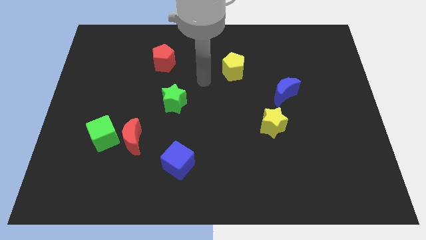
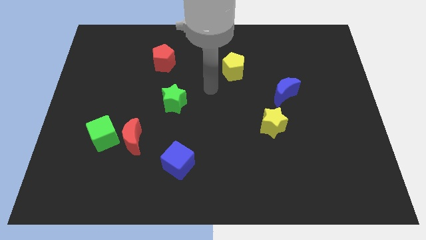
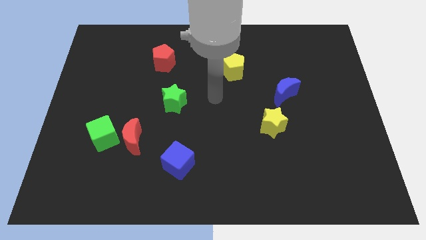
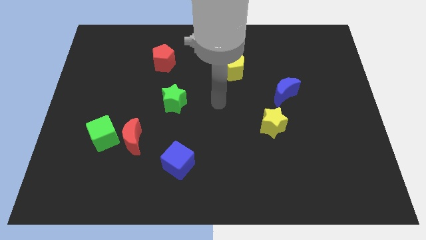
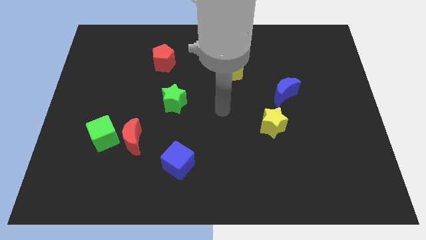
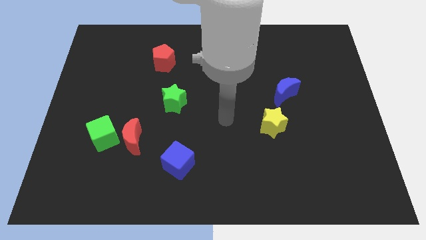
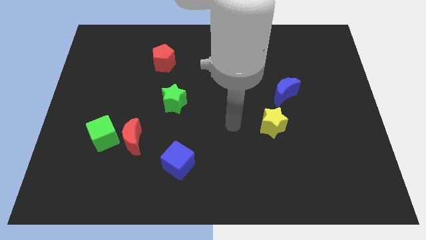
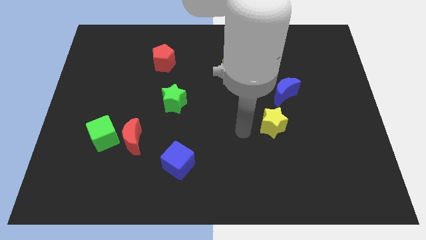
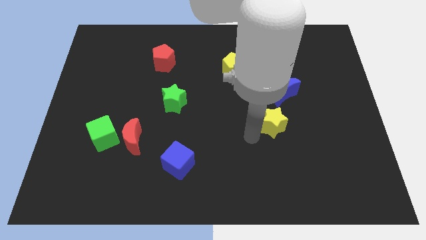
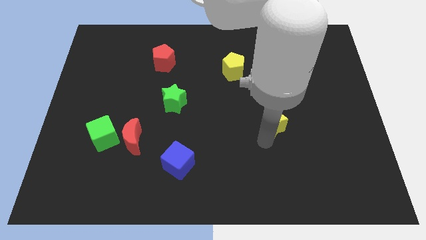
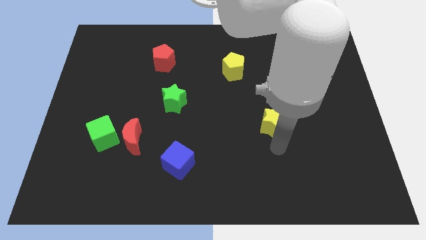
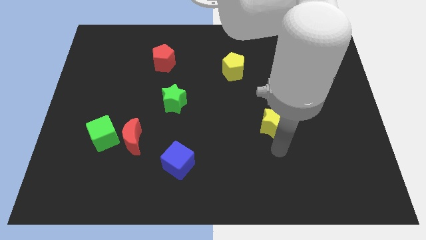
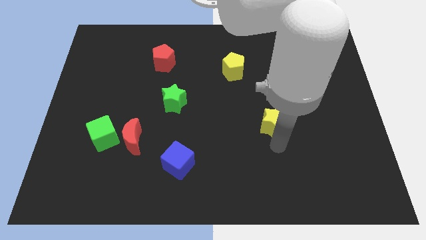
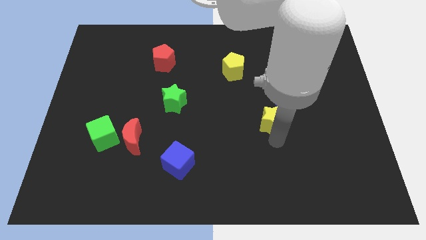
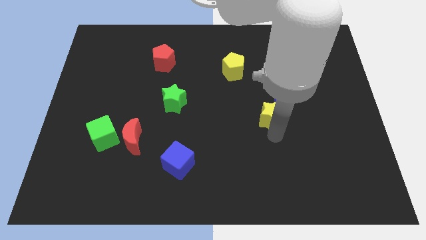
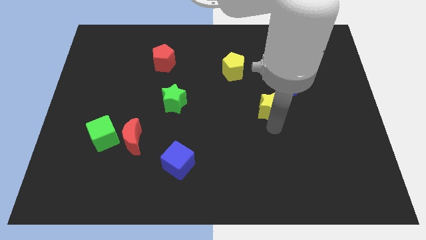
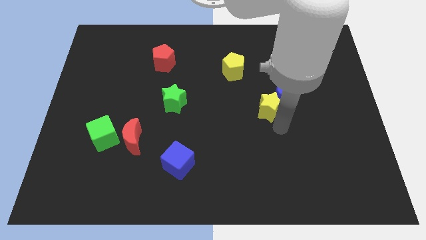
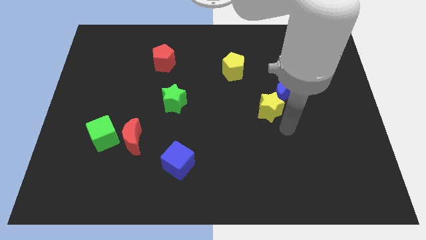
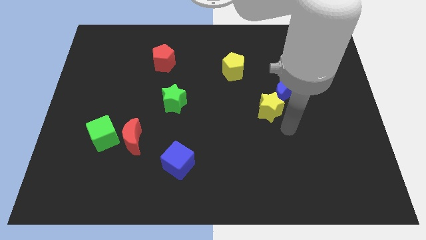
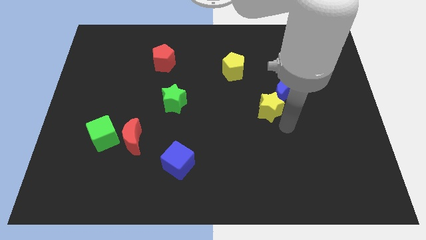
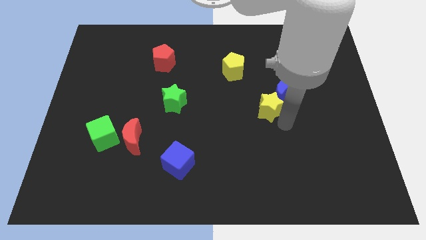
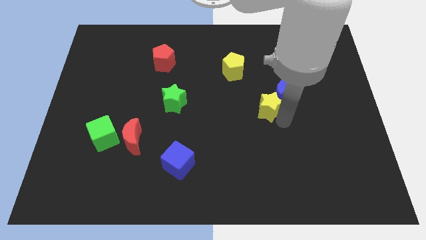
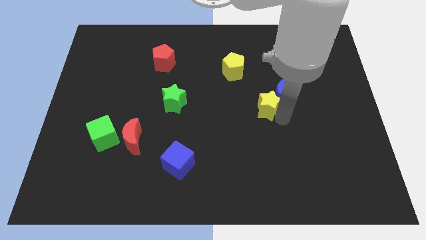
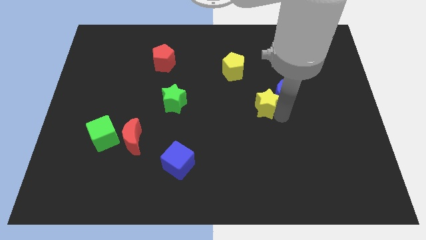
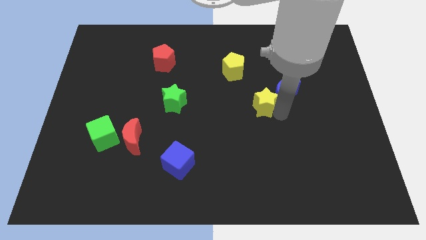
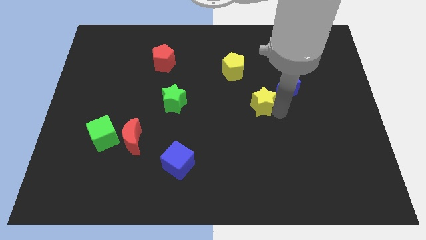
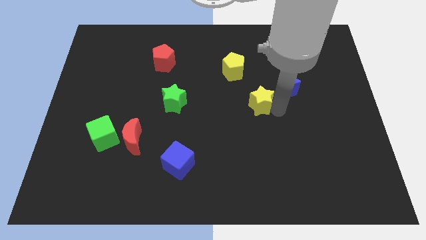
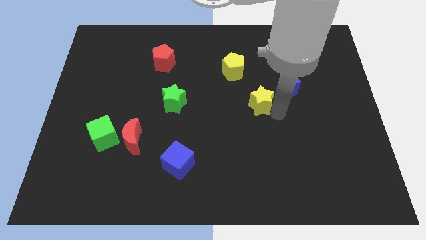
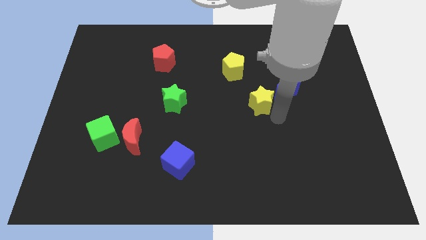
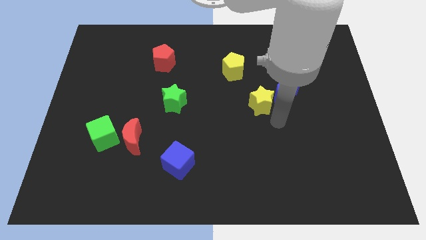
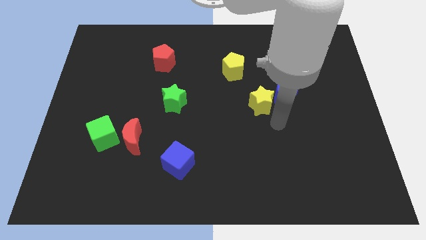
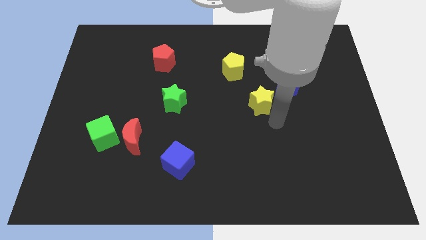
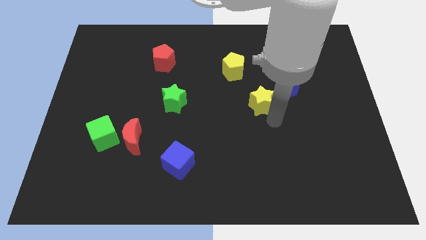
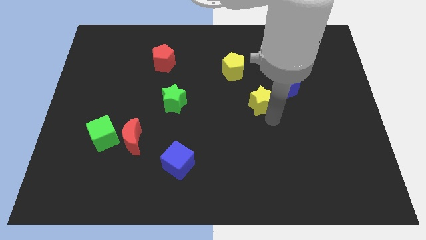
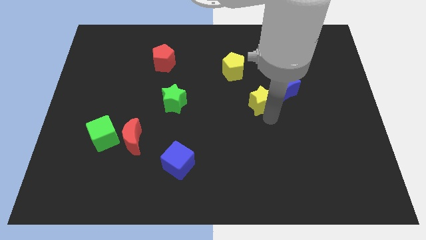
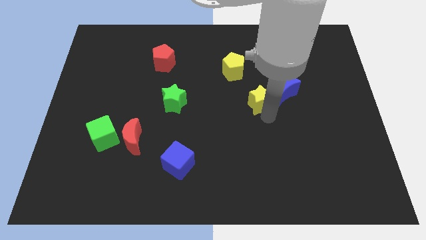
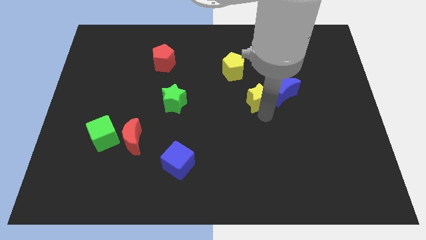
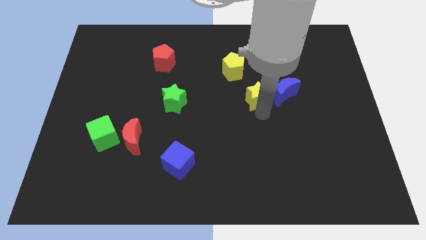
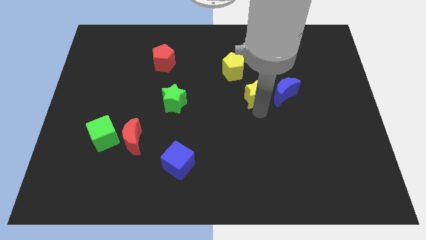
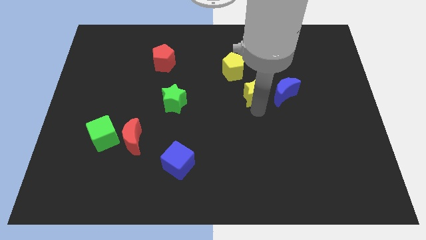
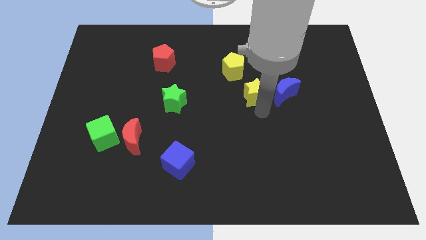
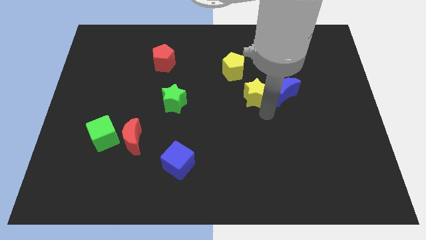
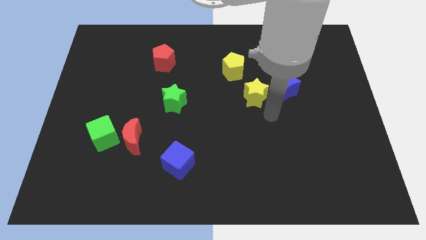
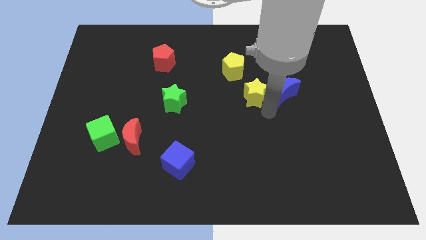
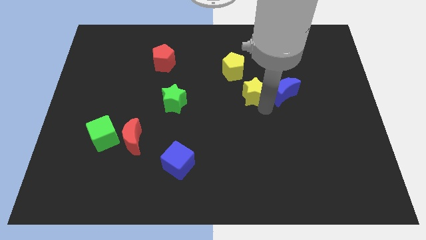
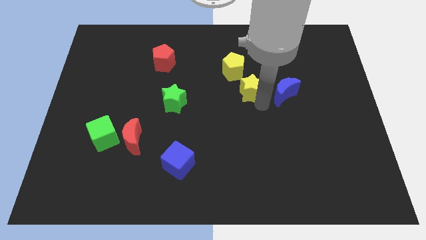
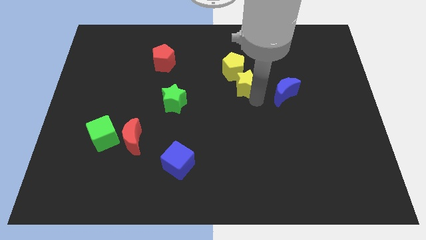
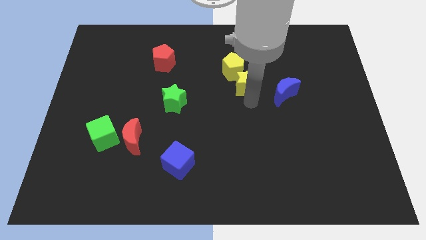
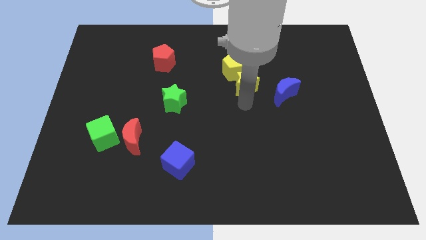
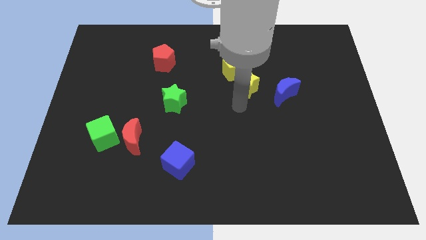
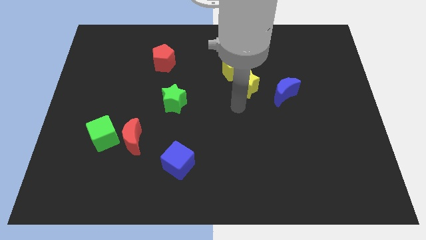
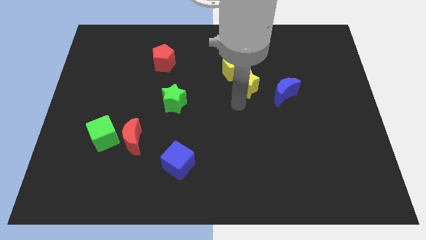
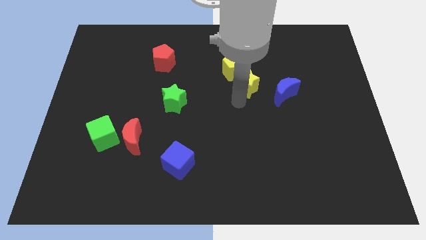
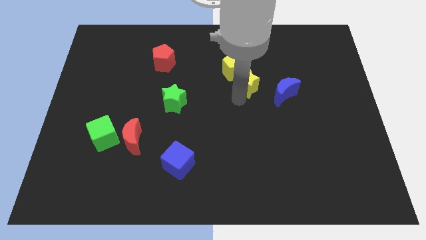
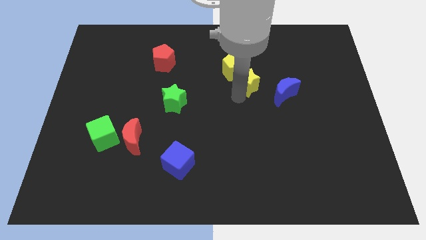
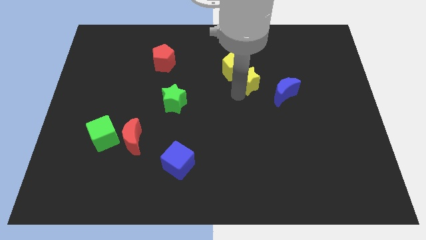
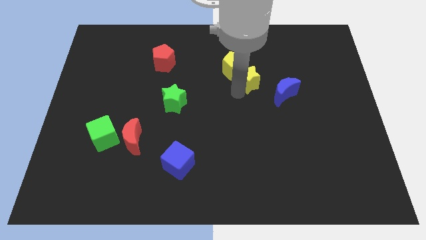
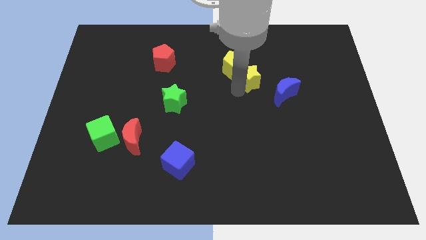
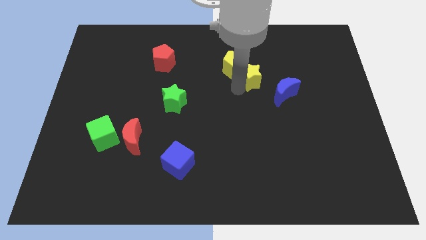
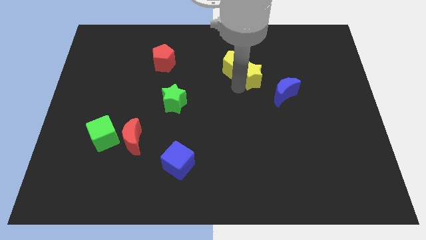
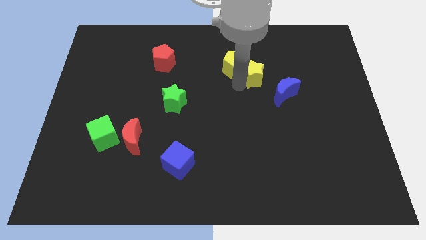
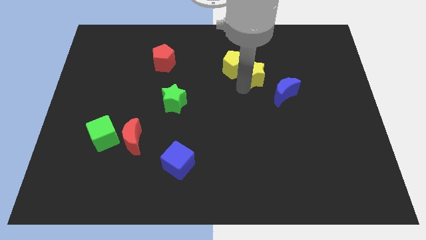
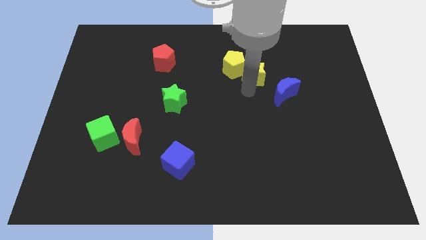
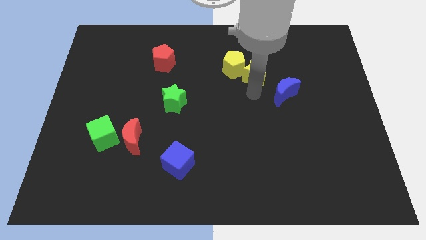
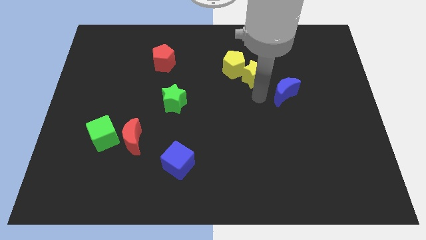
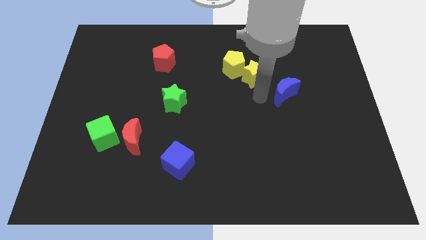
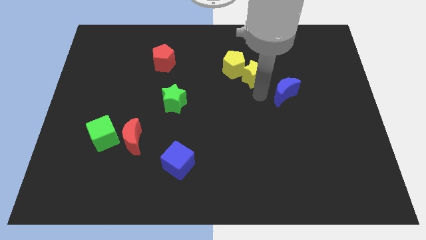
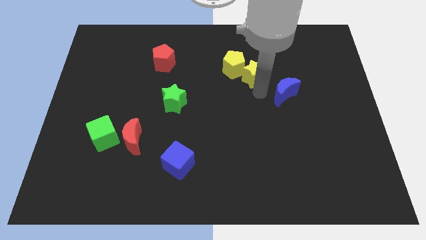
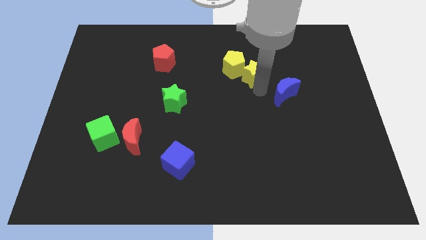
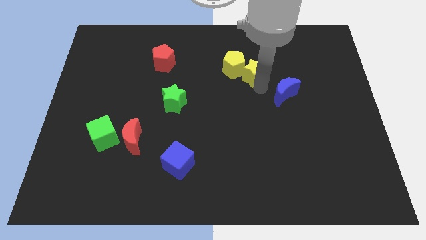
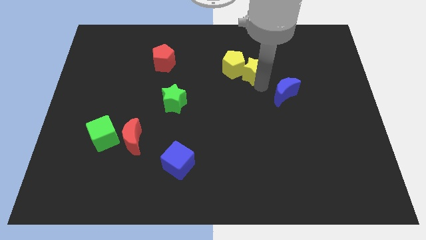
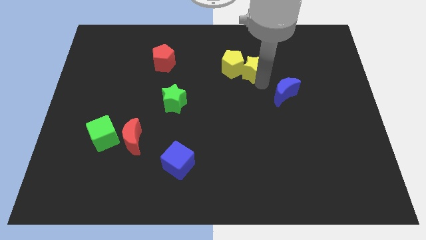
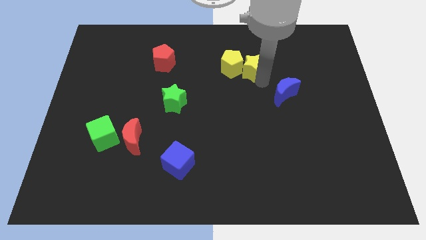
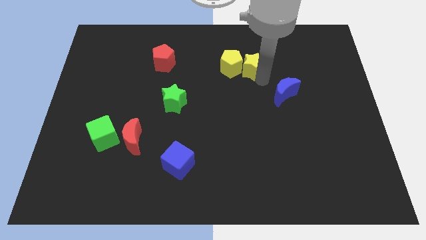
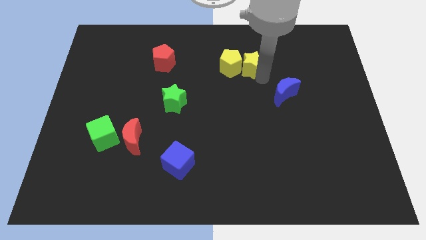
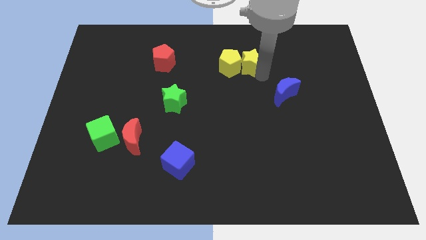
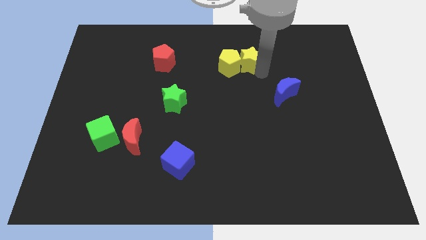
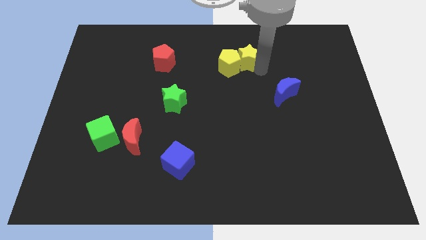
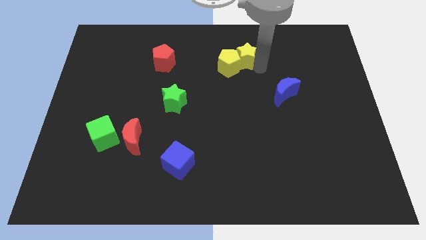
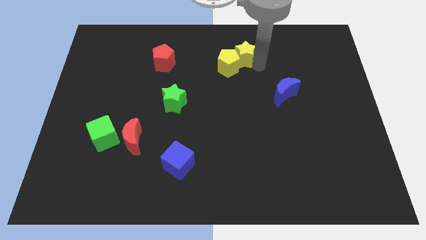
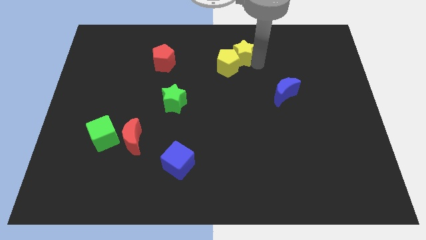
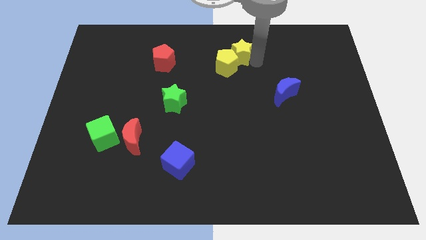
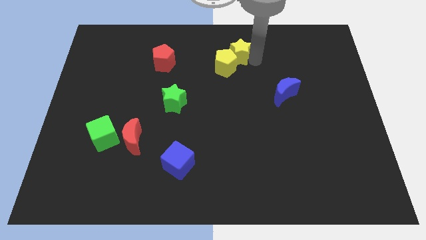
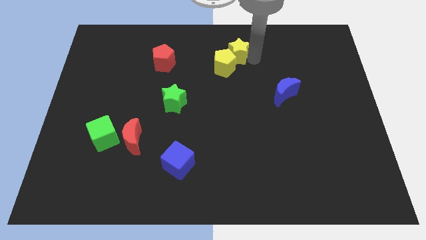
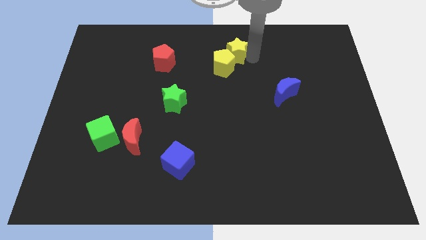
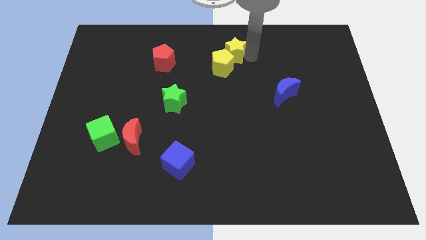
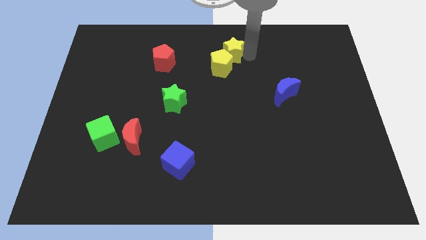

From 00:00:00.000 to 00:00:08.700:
put the yellow star to the top side
